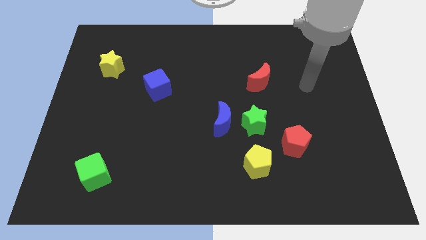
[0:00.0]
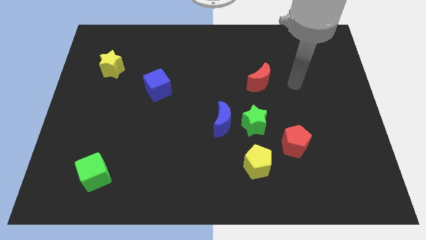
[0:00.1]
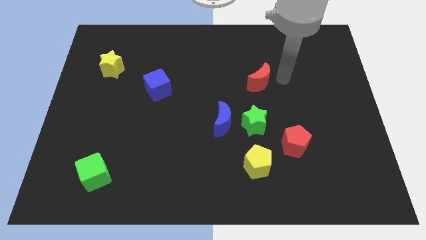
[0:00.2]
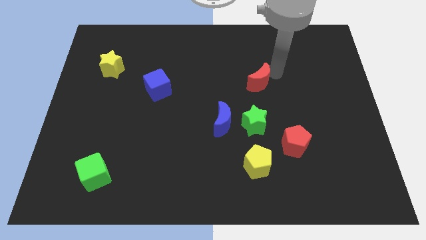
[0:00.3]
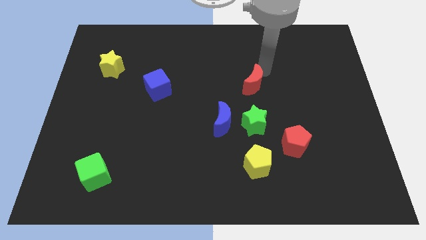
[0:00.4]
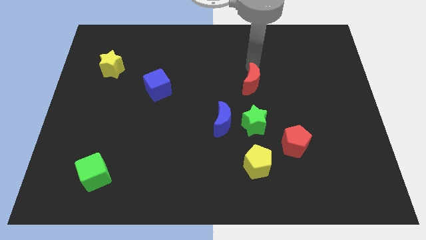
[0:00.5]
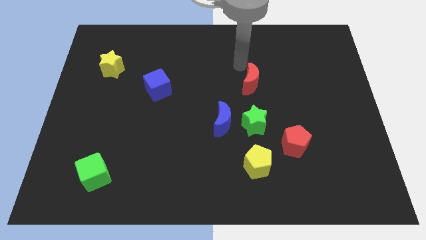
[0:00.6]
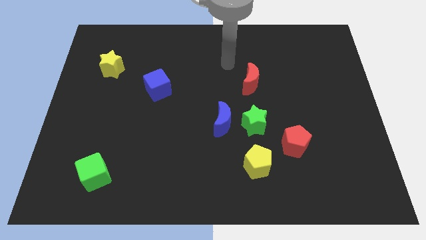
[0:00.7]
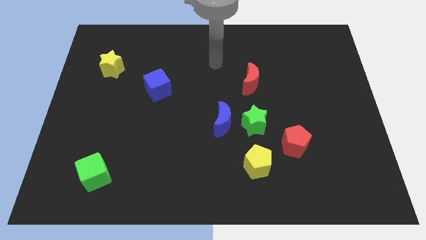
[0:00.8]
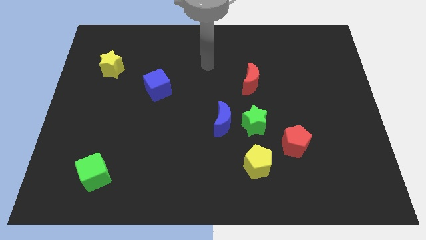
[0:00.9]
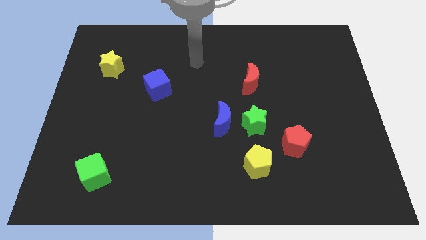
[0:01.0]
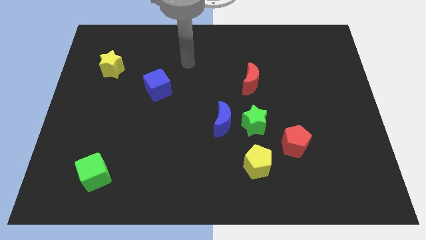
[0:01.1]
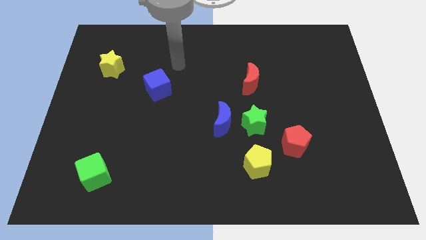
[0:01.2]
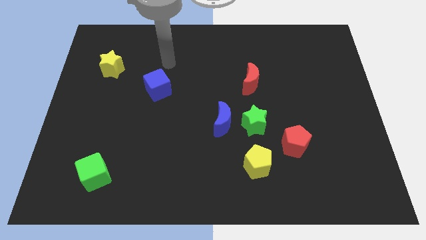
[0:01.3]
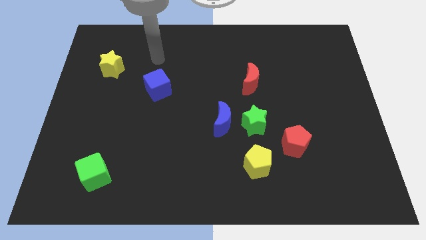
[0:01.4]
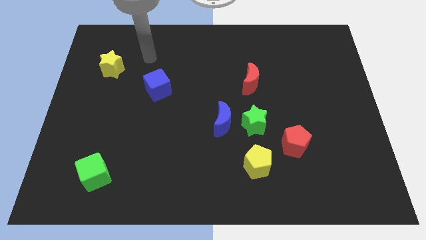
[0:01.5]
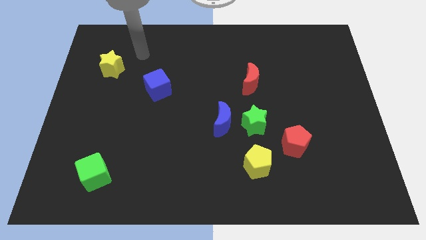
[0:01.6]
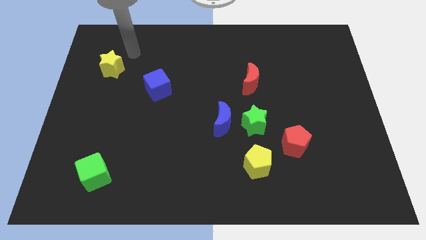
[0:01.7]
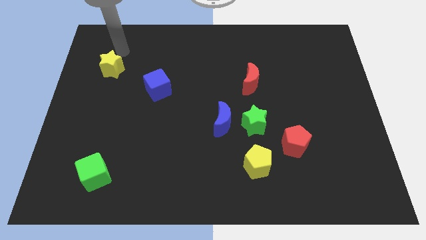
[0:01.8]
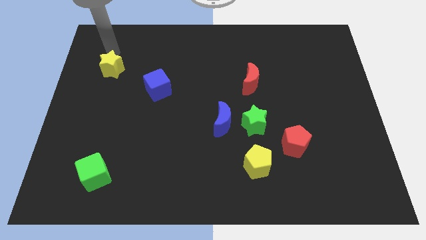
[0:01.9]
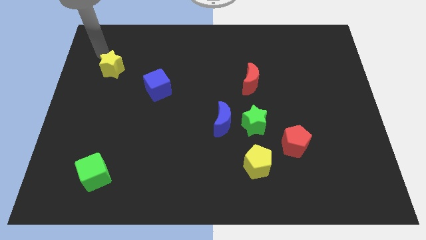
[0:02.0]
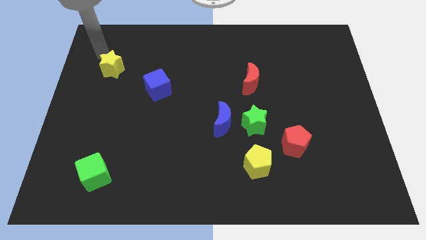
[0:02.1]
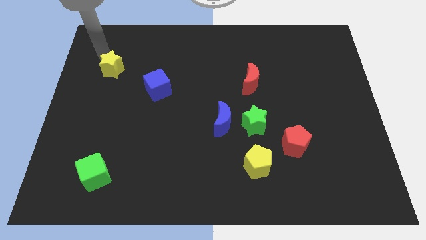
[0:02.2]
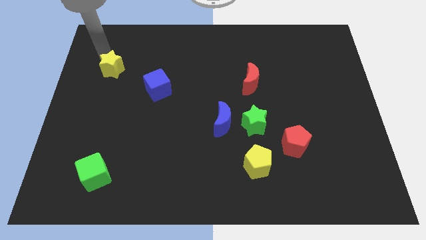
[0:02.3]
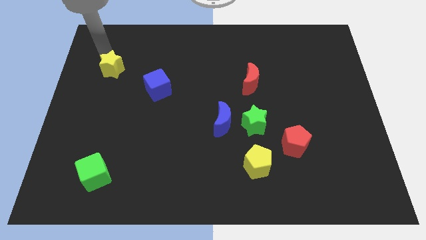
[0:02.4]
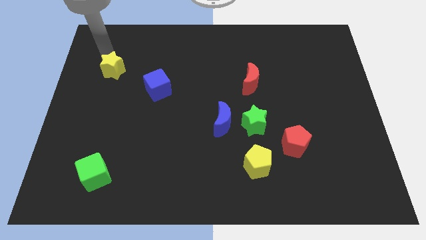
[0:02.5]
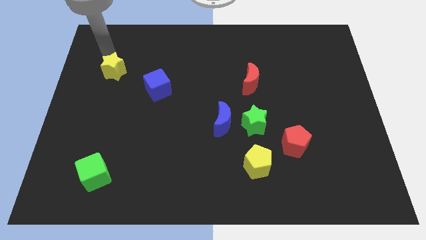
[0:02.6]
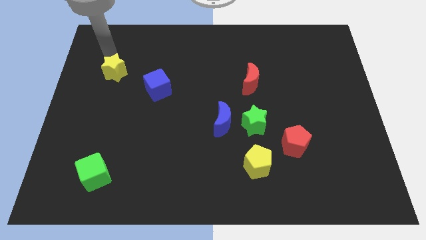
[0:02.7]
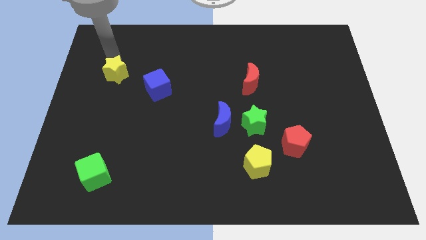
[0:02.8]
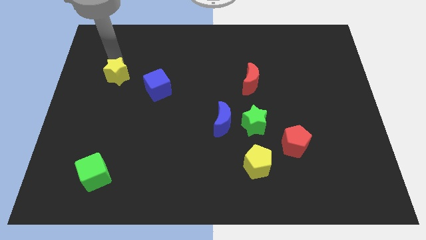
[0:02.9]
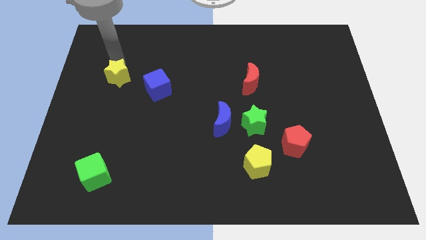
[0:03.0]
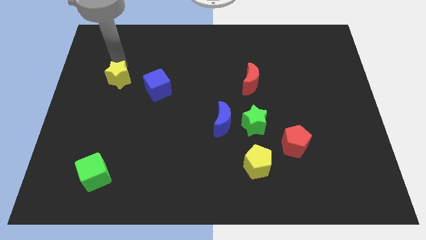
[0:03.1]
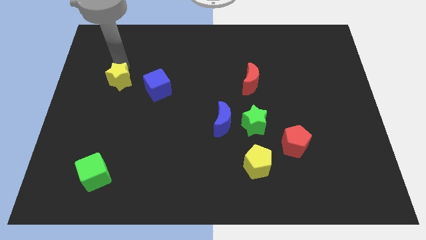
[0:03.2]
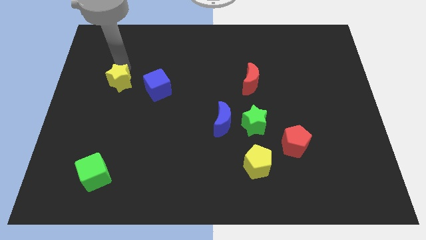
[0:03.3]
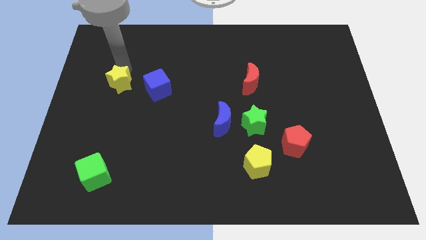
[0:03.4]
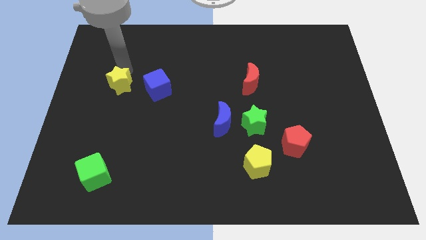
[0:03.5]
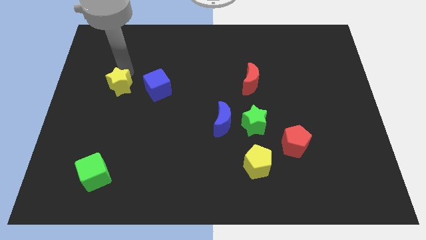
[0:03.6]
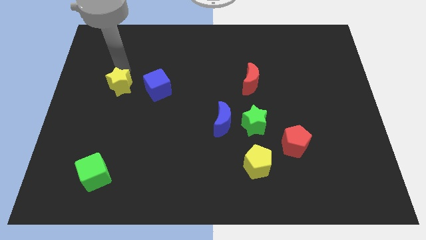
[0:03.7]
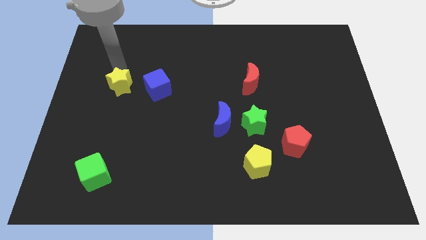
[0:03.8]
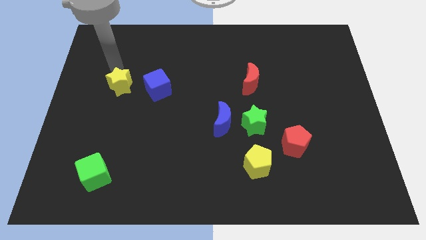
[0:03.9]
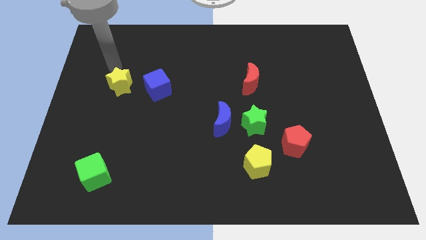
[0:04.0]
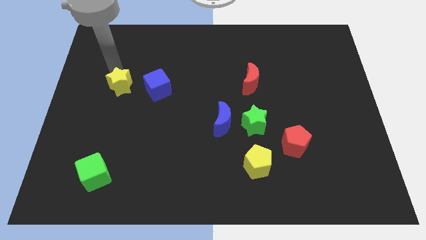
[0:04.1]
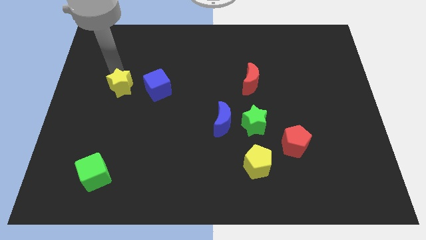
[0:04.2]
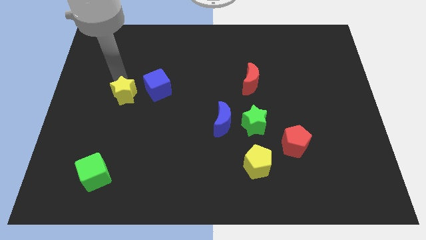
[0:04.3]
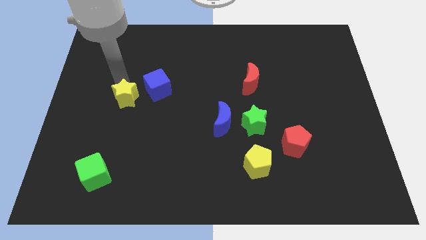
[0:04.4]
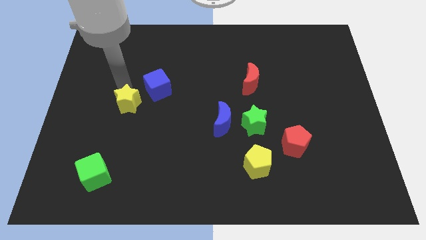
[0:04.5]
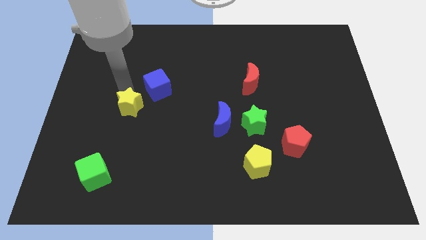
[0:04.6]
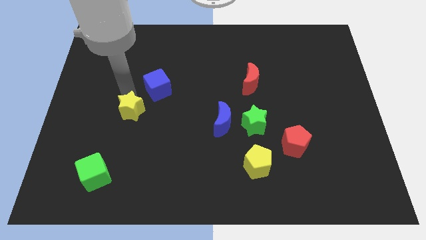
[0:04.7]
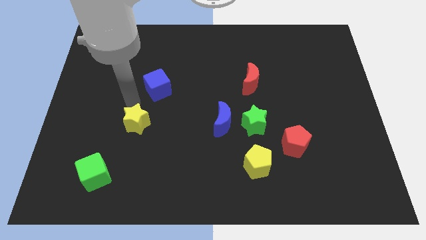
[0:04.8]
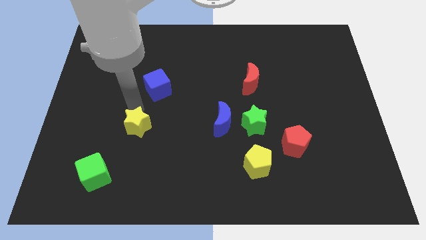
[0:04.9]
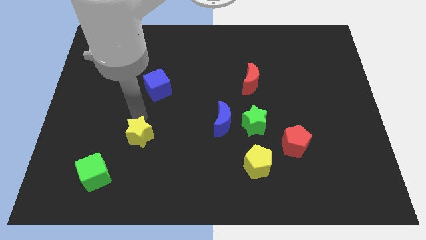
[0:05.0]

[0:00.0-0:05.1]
slide the yellow star to the top right of the green cube

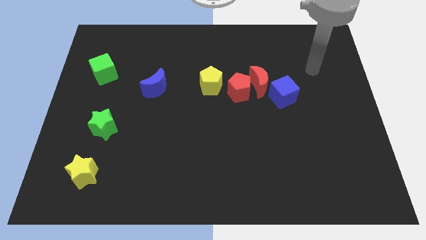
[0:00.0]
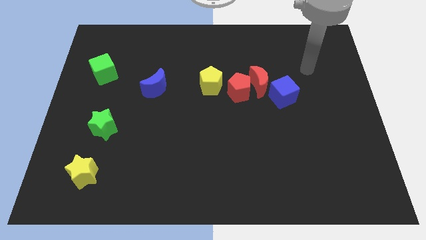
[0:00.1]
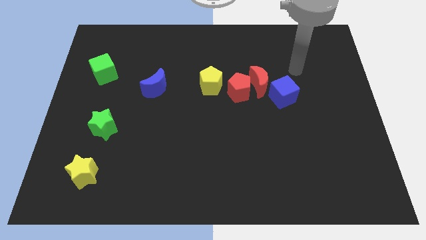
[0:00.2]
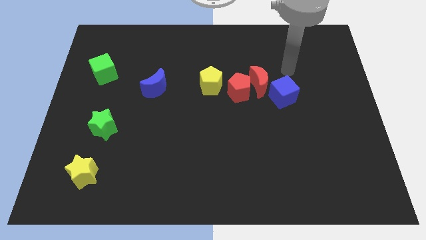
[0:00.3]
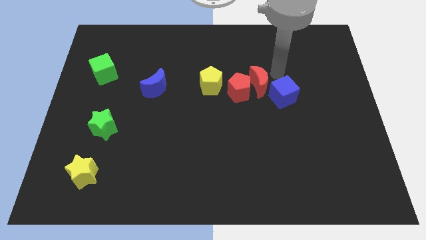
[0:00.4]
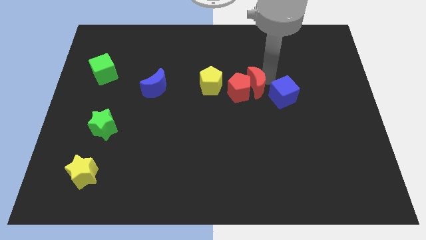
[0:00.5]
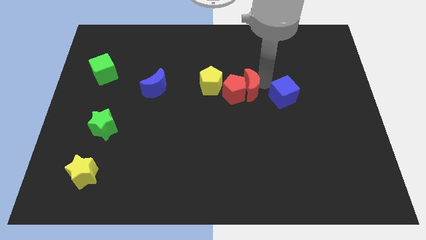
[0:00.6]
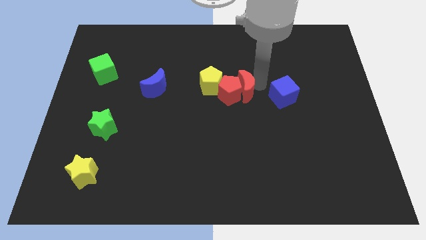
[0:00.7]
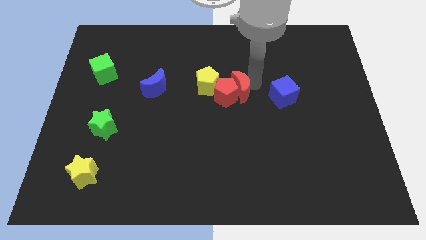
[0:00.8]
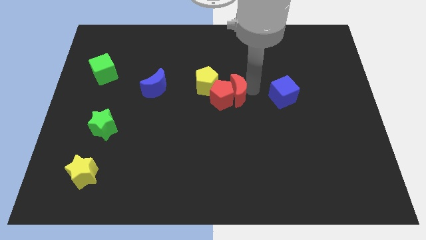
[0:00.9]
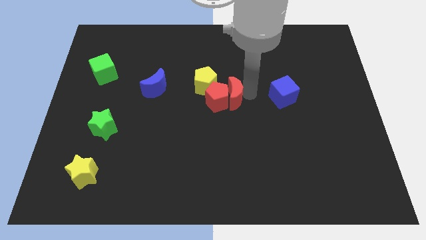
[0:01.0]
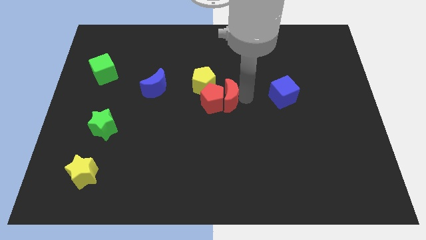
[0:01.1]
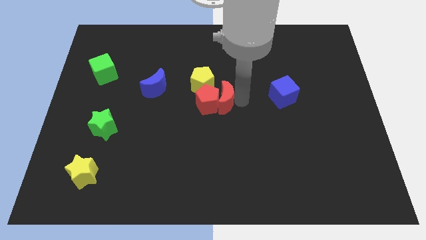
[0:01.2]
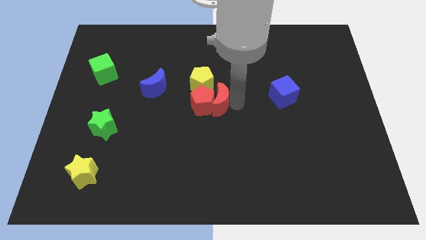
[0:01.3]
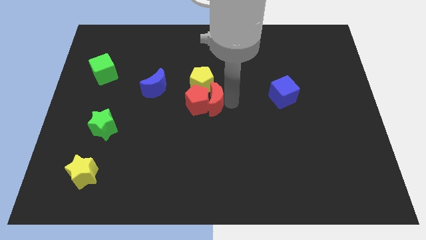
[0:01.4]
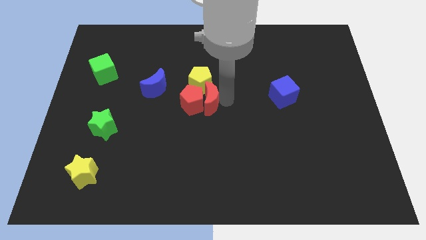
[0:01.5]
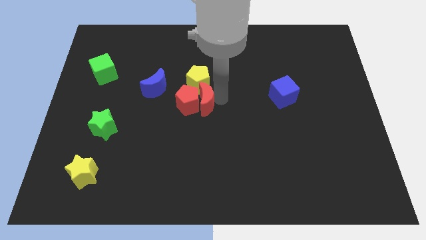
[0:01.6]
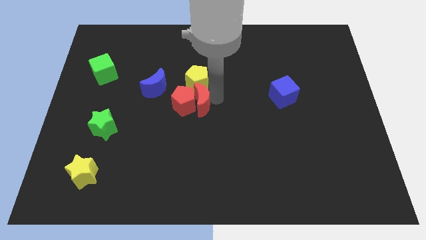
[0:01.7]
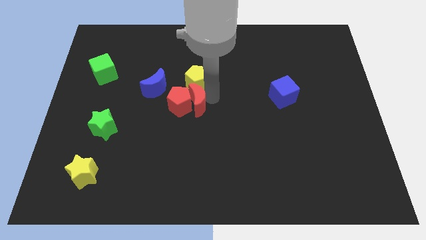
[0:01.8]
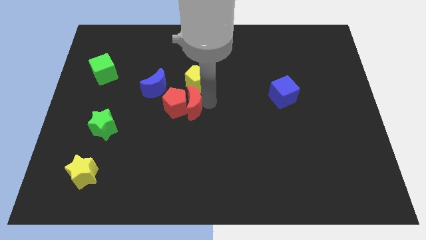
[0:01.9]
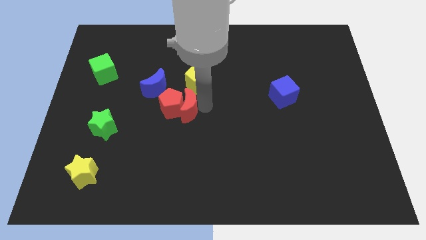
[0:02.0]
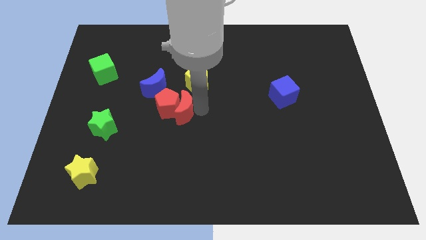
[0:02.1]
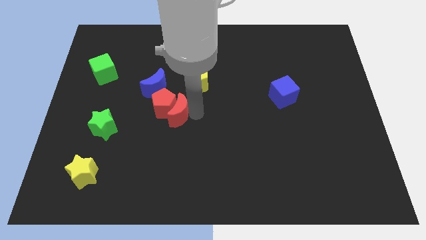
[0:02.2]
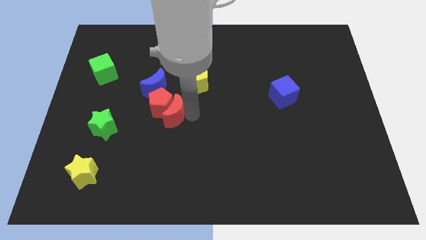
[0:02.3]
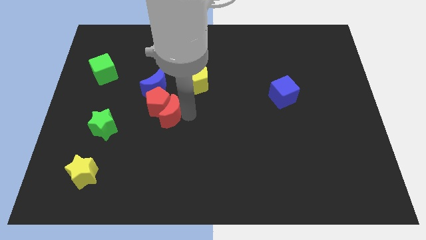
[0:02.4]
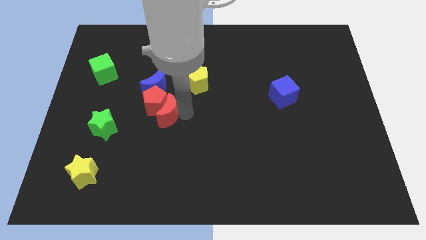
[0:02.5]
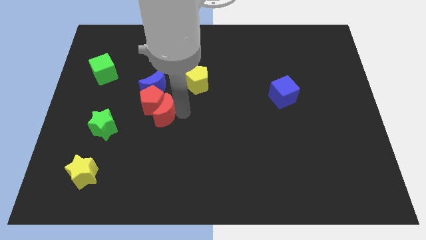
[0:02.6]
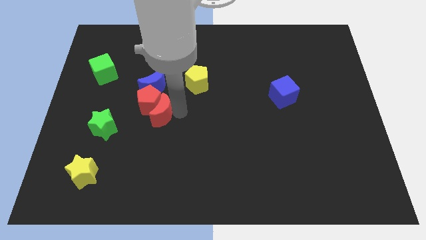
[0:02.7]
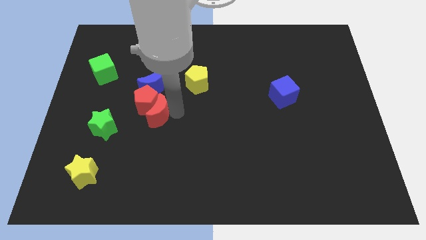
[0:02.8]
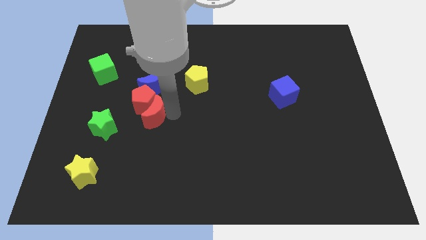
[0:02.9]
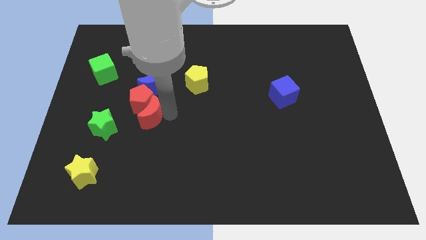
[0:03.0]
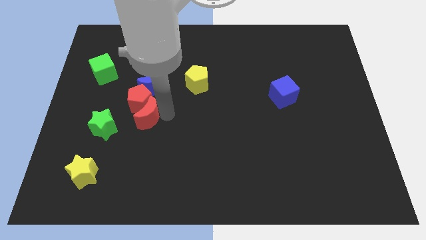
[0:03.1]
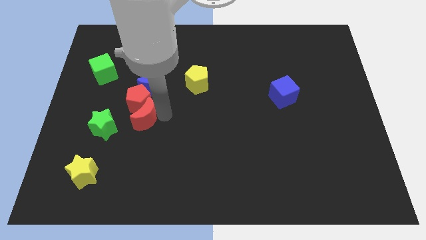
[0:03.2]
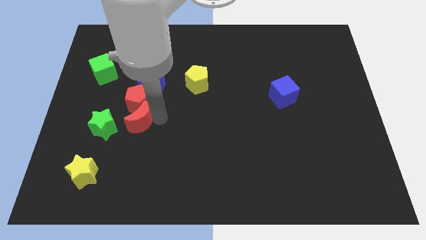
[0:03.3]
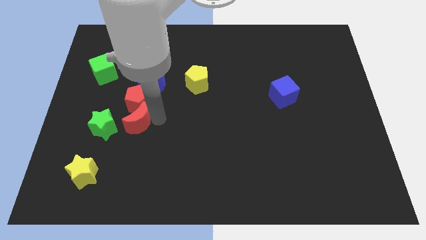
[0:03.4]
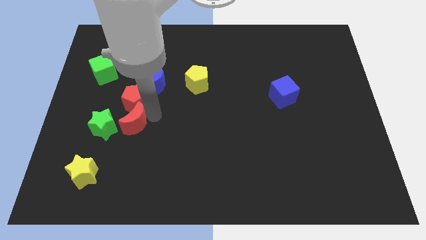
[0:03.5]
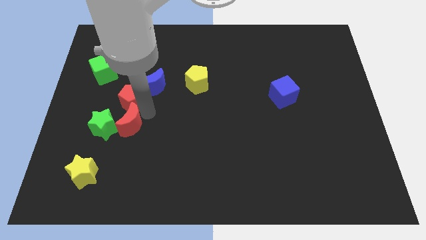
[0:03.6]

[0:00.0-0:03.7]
move the red pentagon diagonally down and to the right of the green cube
